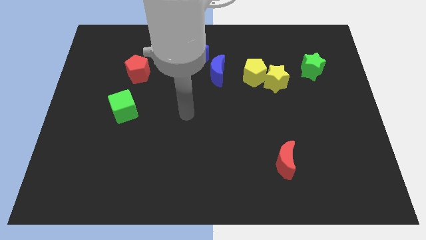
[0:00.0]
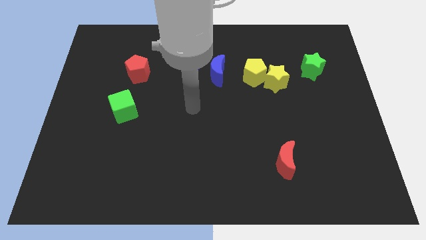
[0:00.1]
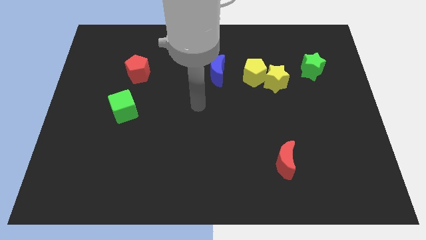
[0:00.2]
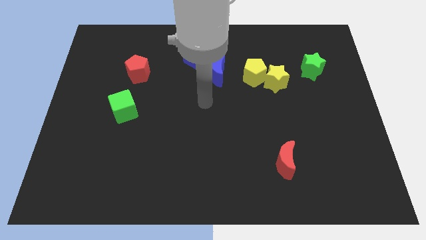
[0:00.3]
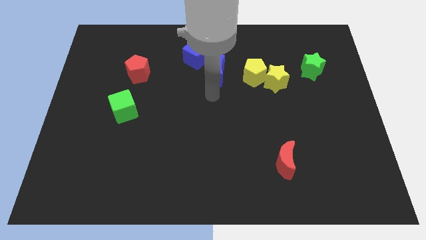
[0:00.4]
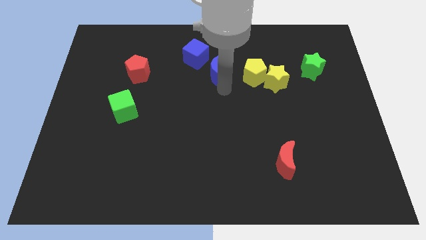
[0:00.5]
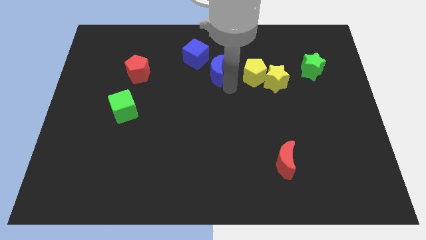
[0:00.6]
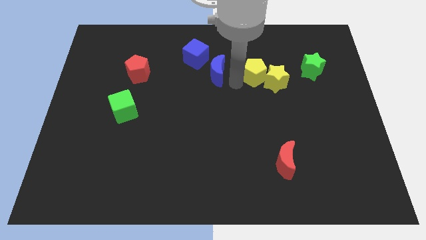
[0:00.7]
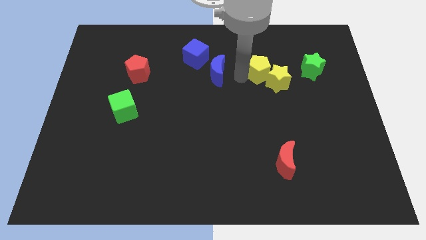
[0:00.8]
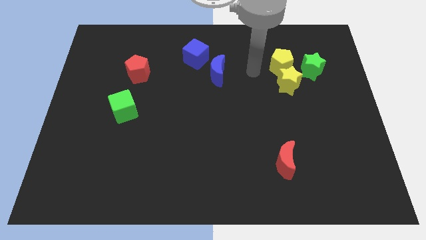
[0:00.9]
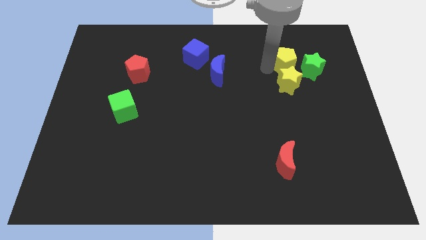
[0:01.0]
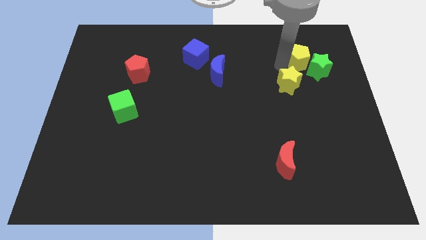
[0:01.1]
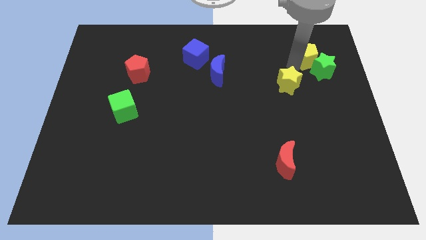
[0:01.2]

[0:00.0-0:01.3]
pull the yellow star apart from the yellow pentagon

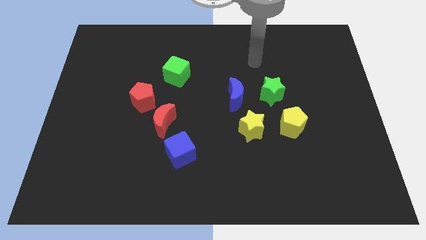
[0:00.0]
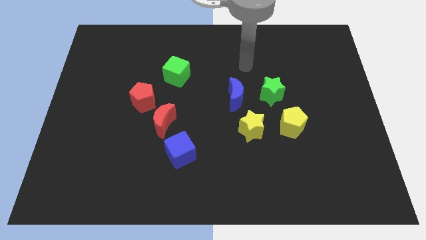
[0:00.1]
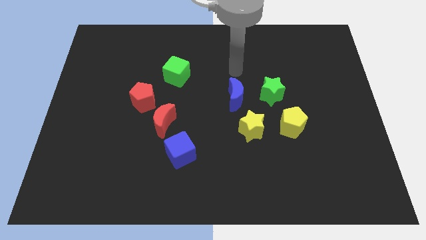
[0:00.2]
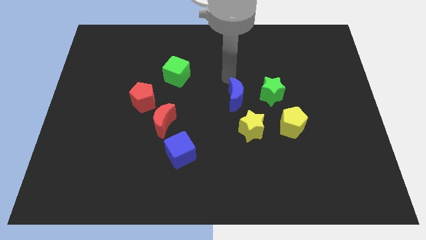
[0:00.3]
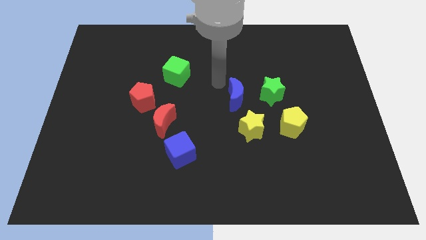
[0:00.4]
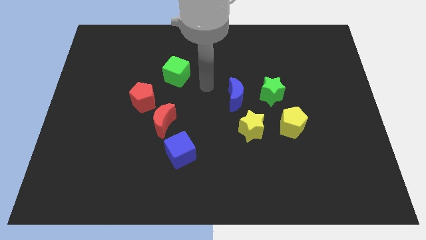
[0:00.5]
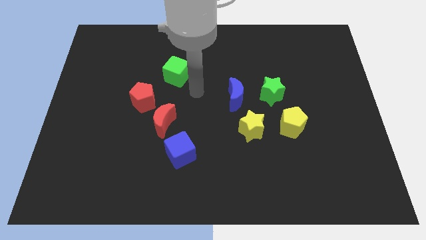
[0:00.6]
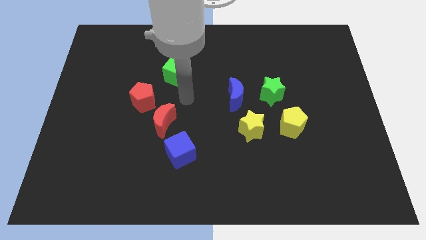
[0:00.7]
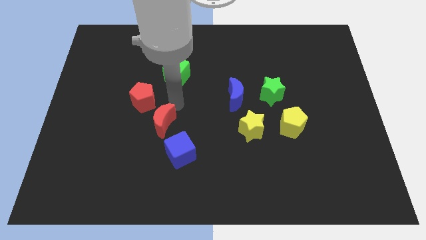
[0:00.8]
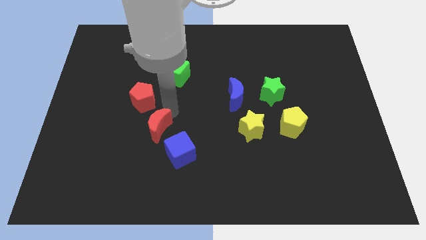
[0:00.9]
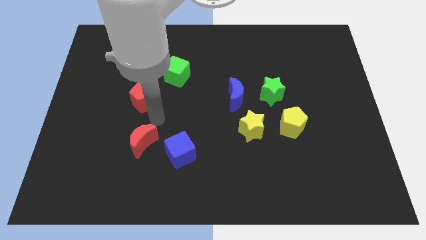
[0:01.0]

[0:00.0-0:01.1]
move the red pentagon away from the red moon

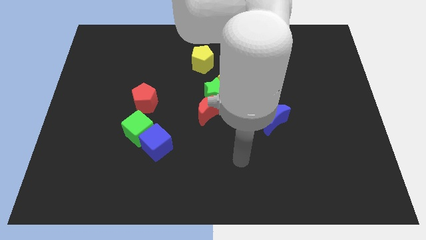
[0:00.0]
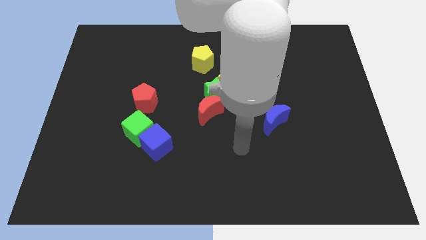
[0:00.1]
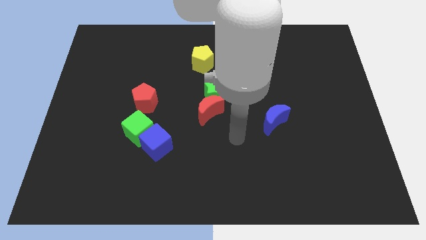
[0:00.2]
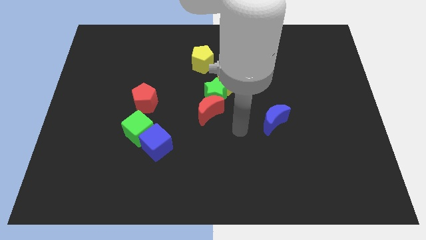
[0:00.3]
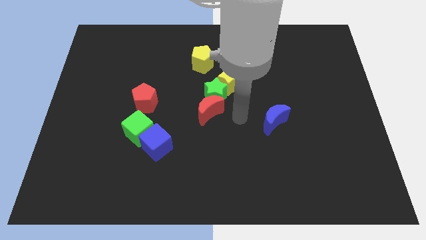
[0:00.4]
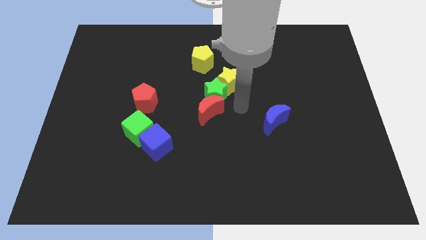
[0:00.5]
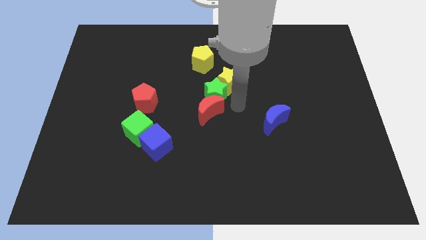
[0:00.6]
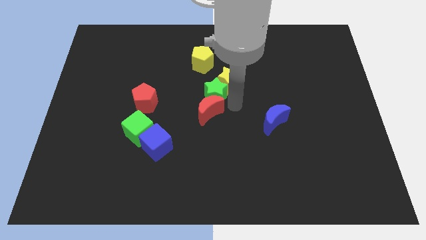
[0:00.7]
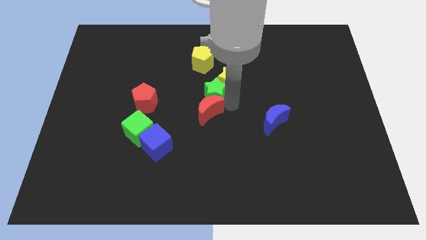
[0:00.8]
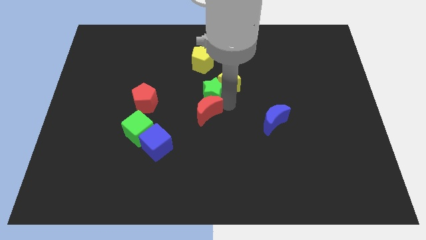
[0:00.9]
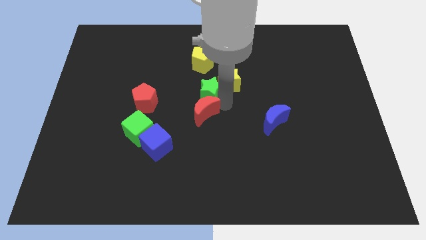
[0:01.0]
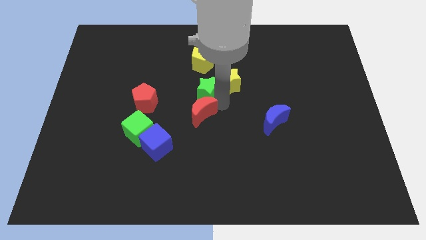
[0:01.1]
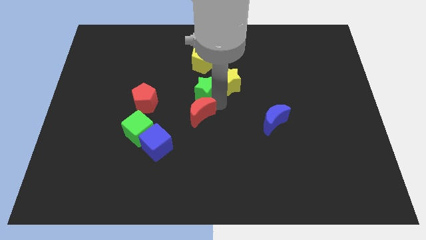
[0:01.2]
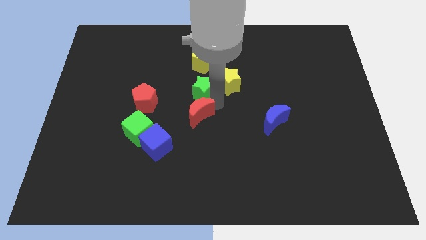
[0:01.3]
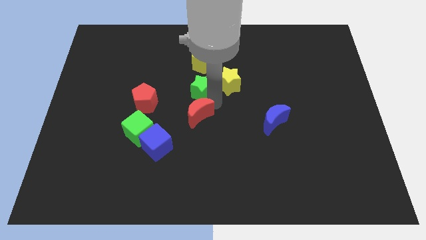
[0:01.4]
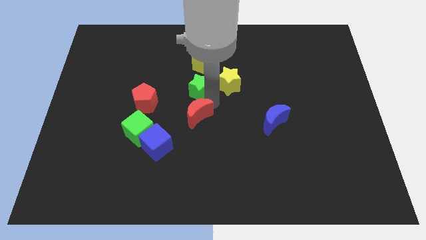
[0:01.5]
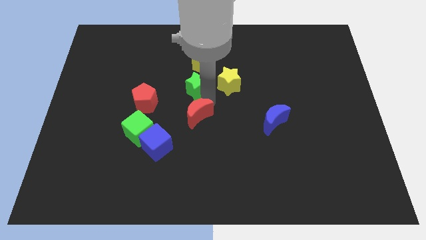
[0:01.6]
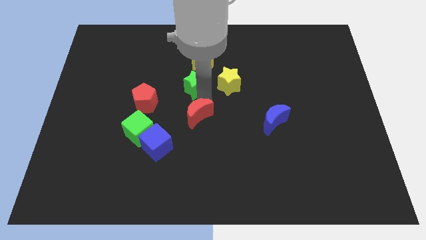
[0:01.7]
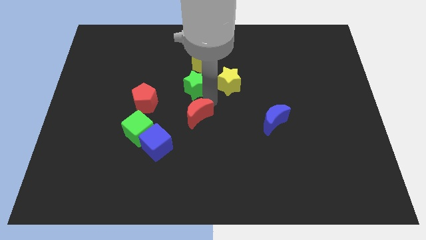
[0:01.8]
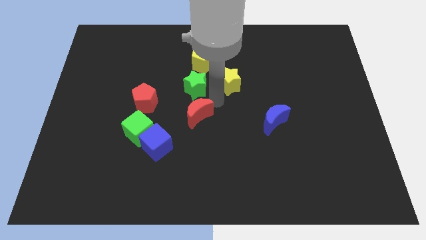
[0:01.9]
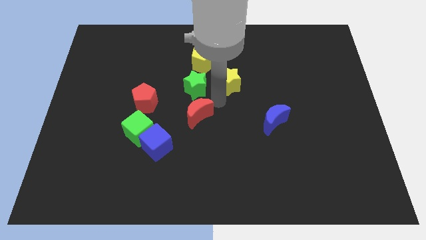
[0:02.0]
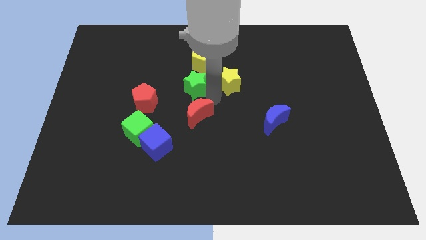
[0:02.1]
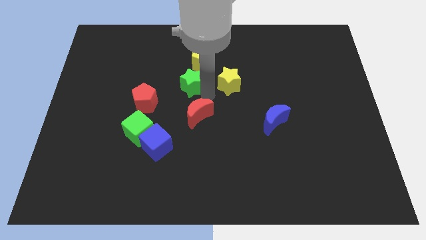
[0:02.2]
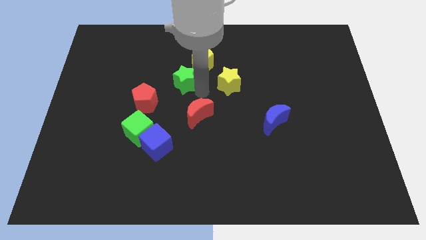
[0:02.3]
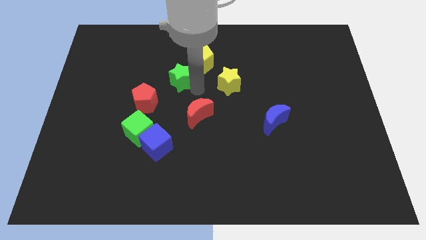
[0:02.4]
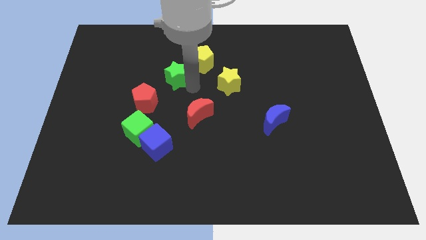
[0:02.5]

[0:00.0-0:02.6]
separate the green star from the red moon and yellow star

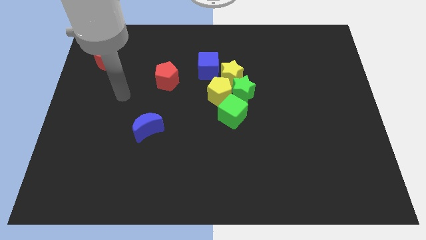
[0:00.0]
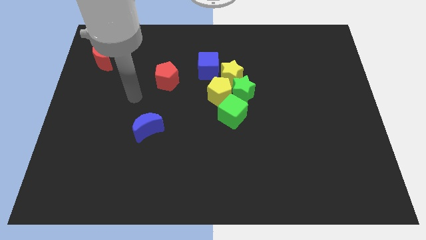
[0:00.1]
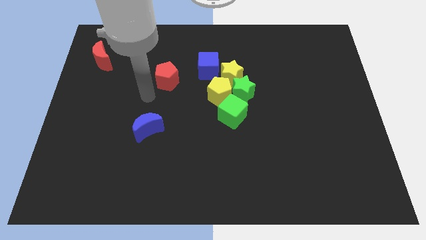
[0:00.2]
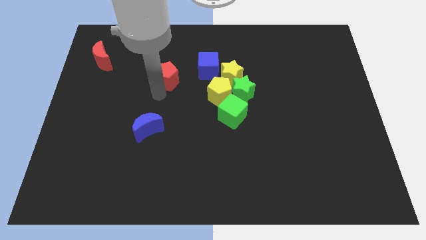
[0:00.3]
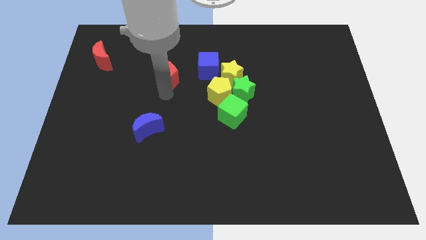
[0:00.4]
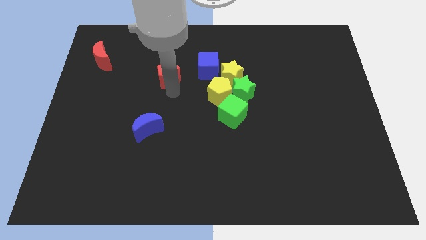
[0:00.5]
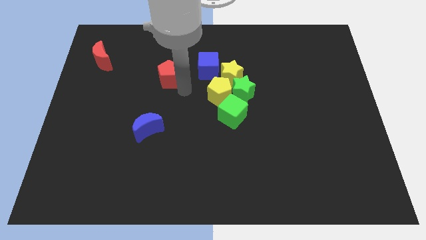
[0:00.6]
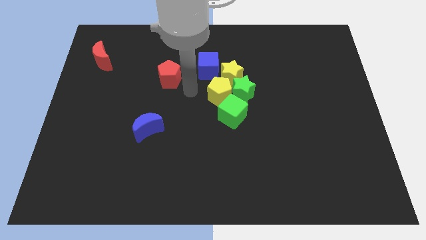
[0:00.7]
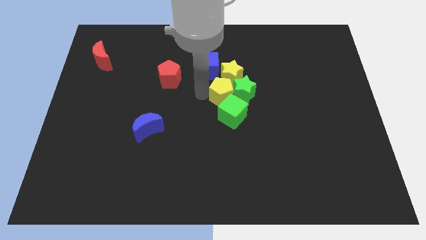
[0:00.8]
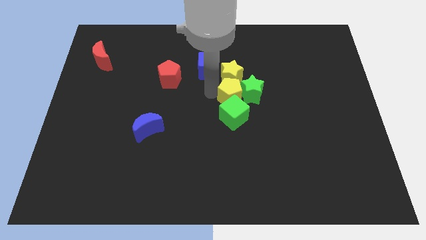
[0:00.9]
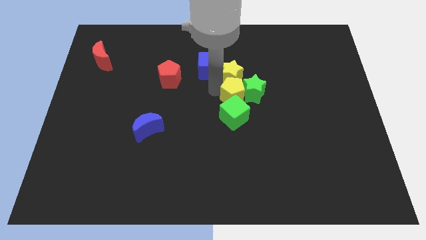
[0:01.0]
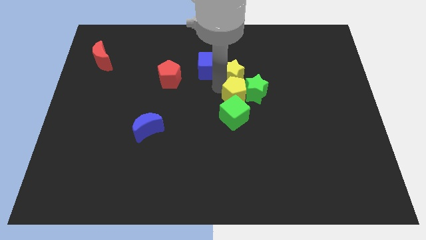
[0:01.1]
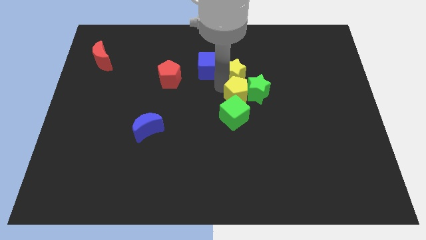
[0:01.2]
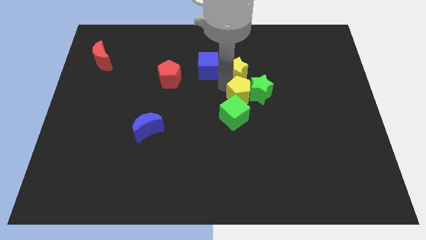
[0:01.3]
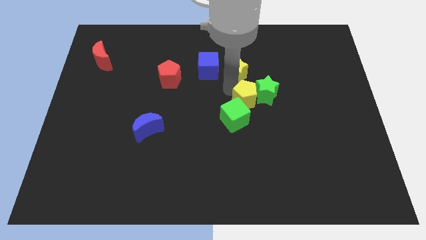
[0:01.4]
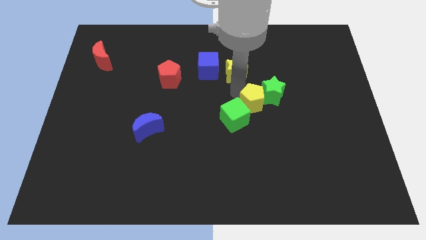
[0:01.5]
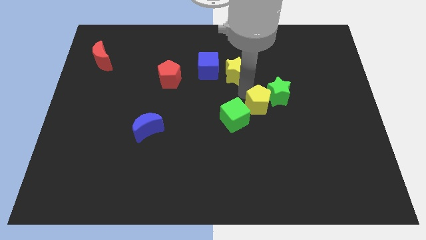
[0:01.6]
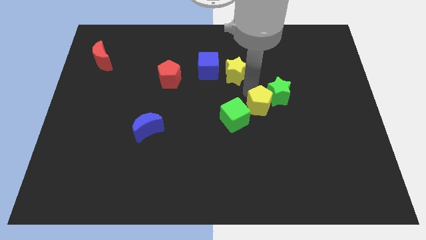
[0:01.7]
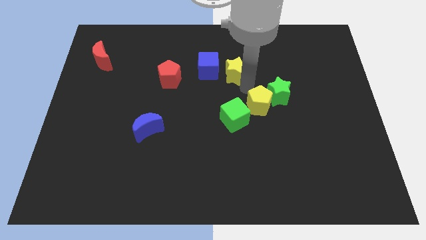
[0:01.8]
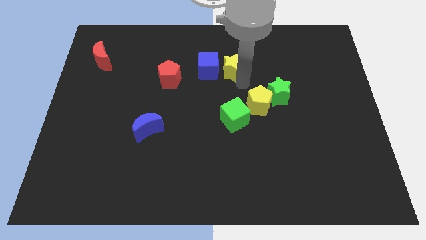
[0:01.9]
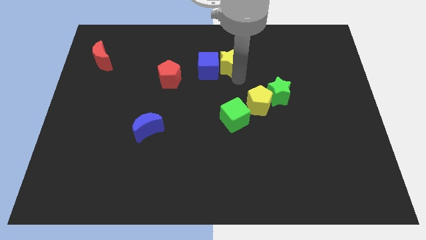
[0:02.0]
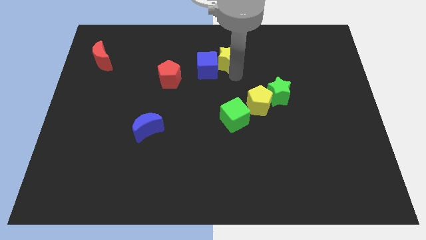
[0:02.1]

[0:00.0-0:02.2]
separate the yellow star from the yellow pentagon, green star, and blue cube

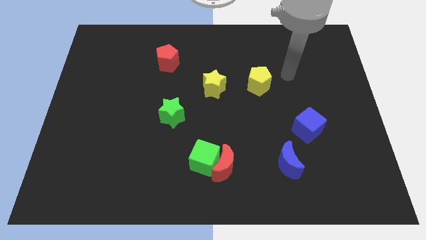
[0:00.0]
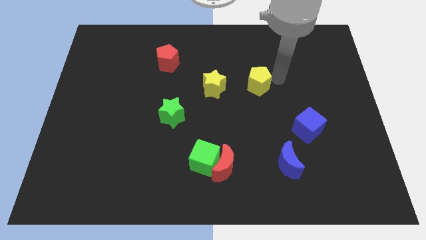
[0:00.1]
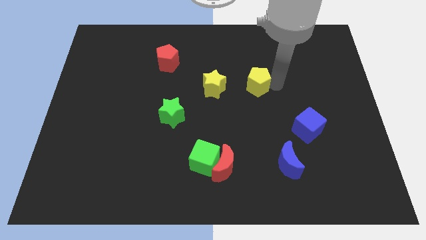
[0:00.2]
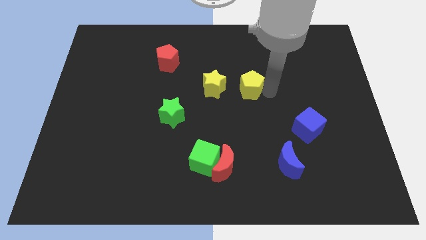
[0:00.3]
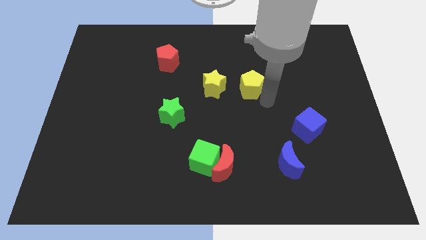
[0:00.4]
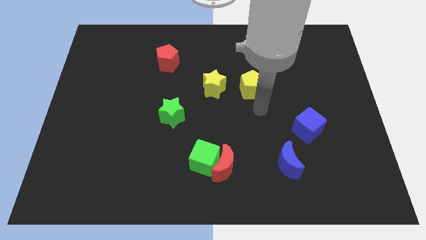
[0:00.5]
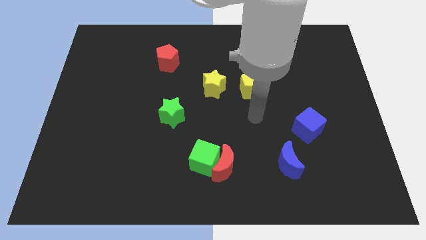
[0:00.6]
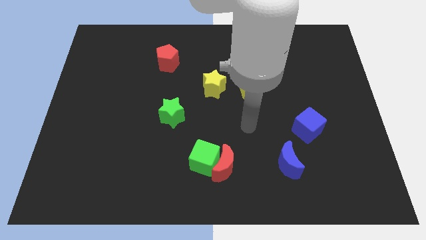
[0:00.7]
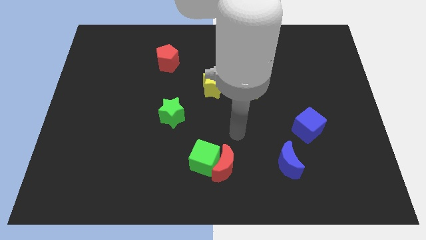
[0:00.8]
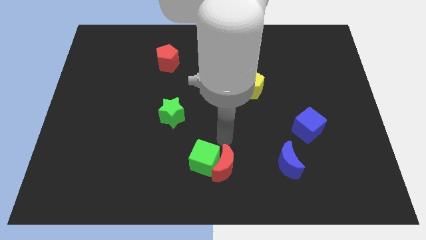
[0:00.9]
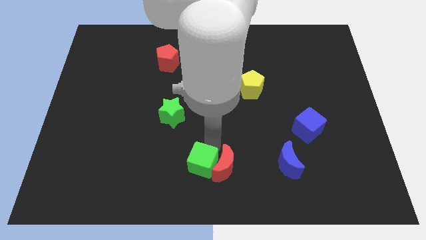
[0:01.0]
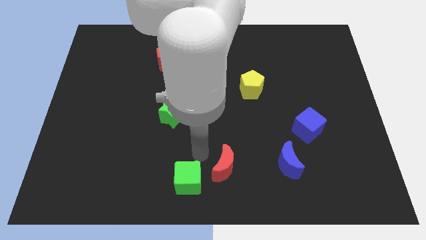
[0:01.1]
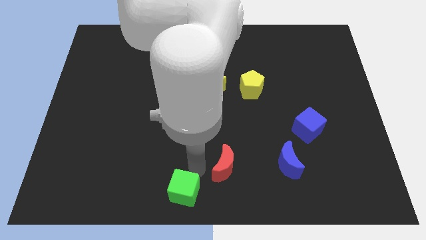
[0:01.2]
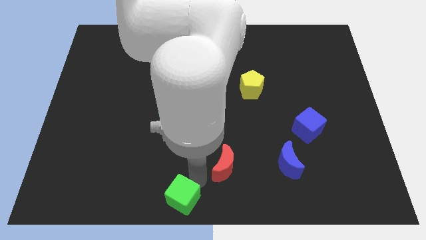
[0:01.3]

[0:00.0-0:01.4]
pull the red moon apart from the green cube

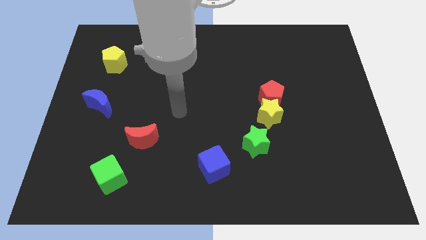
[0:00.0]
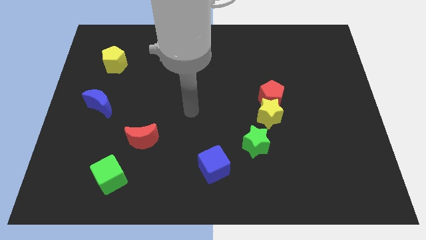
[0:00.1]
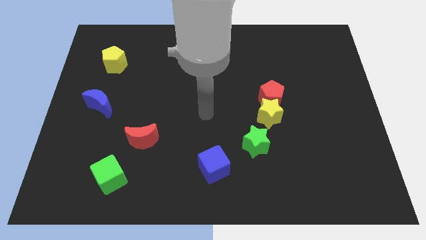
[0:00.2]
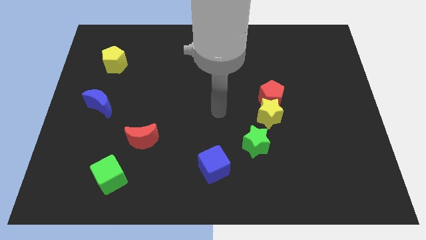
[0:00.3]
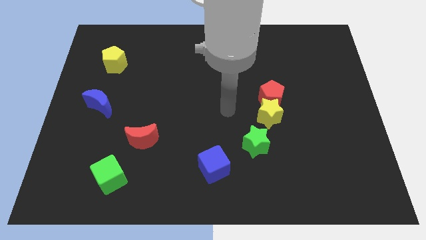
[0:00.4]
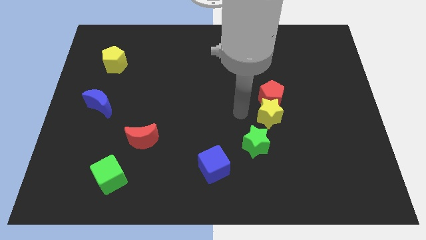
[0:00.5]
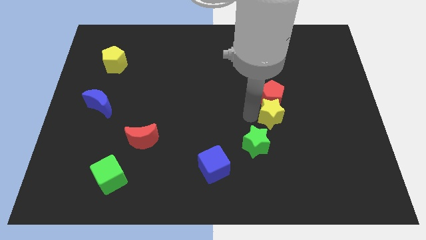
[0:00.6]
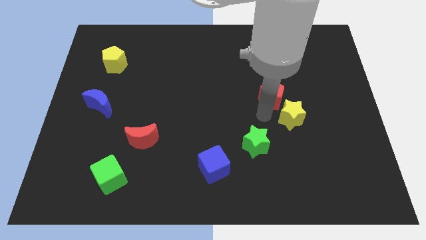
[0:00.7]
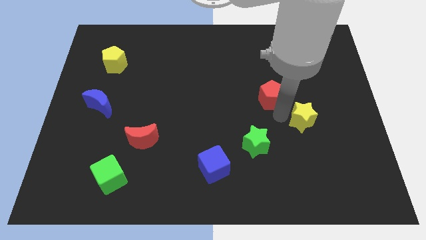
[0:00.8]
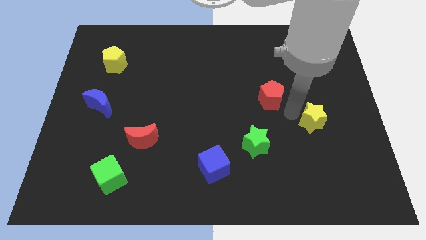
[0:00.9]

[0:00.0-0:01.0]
pull the red pentagon apart from the yellow star
